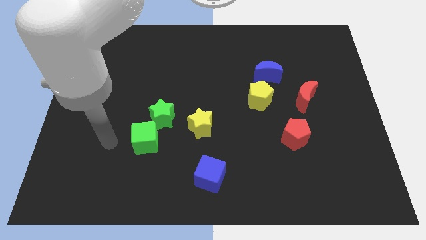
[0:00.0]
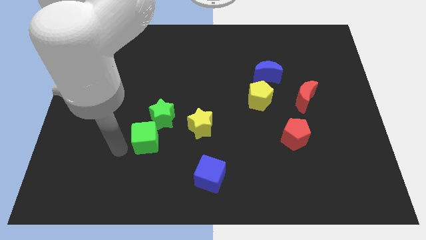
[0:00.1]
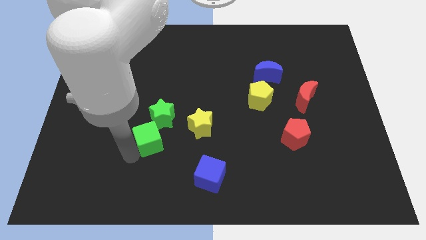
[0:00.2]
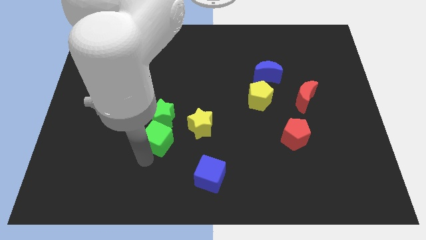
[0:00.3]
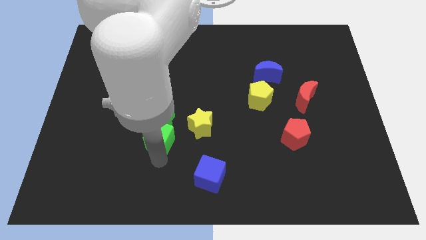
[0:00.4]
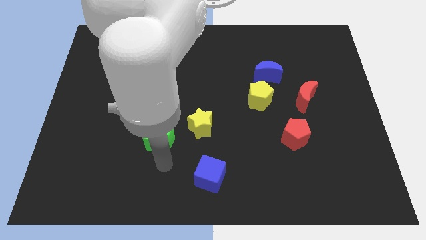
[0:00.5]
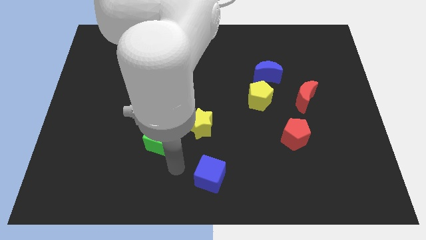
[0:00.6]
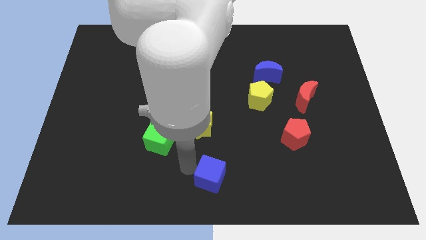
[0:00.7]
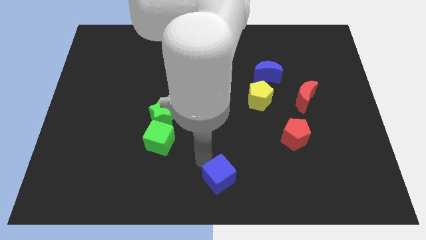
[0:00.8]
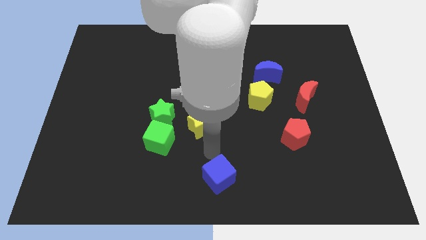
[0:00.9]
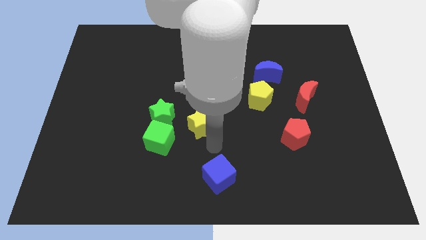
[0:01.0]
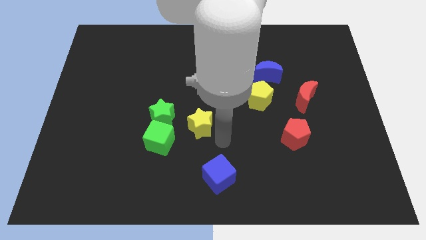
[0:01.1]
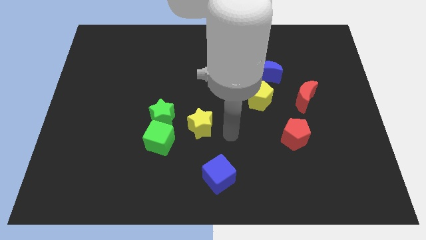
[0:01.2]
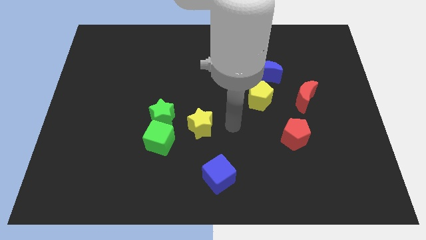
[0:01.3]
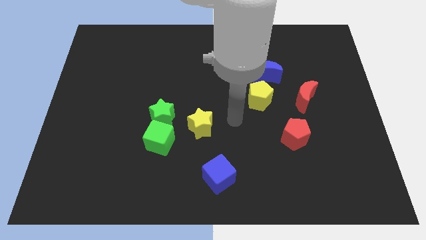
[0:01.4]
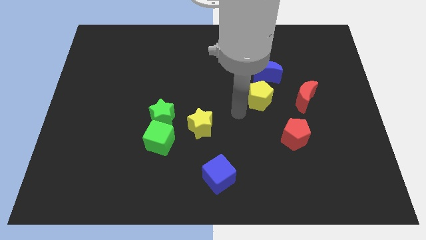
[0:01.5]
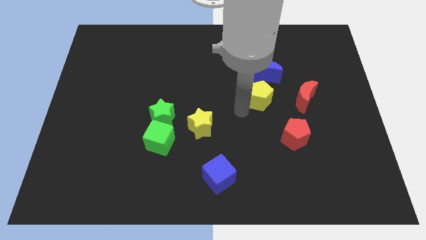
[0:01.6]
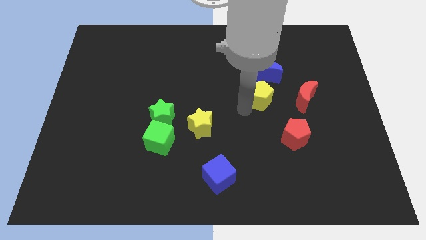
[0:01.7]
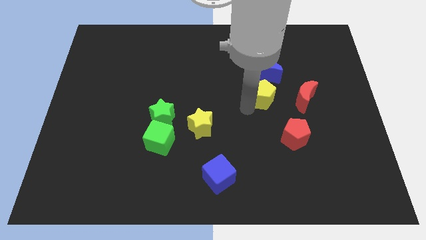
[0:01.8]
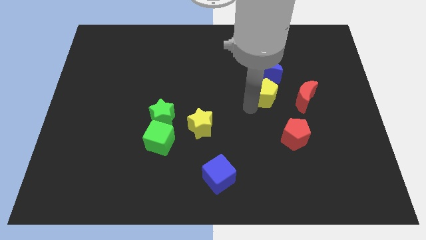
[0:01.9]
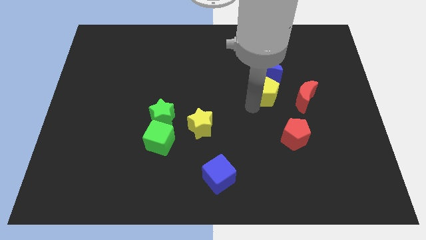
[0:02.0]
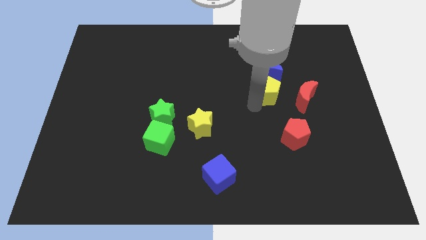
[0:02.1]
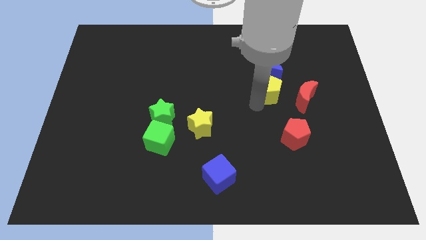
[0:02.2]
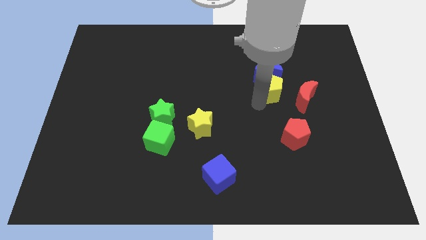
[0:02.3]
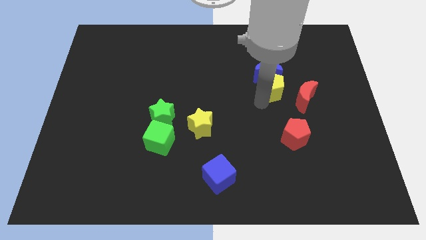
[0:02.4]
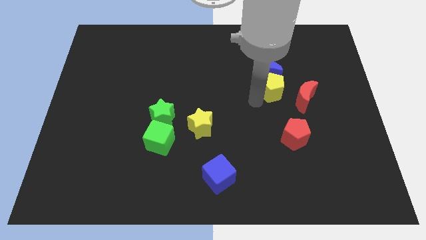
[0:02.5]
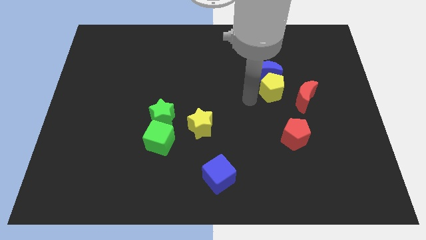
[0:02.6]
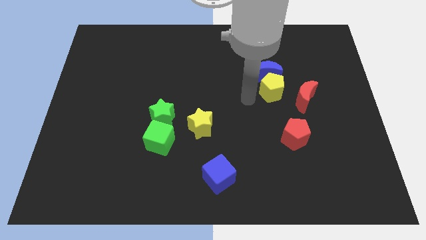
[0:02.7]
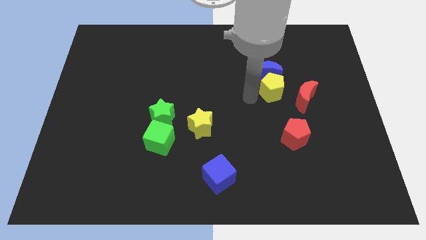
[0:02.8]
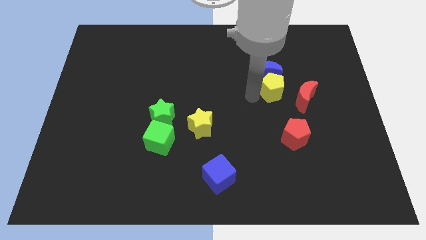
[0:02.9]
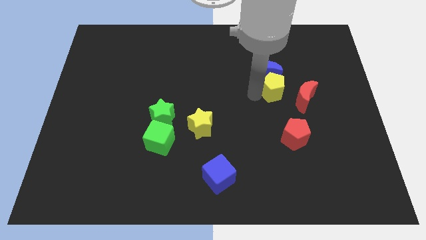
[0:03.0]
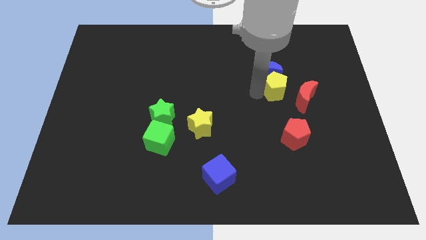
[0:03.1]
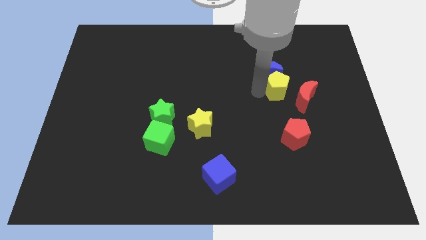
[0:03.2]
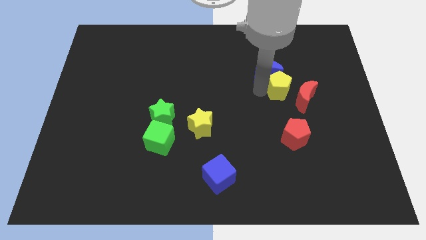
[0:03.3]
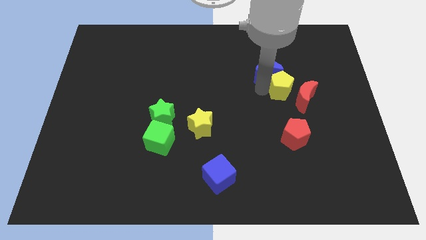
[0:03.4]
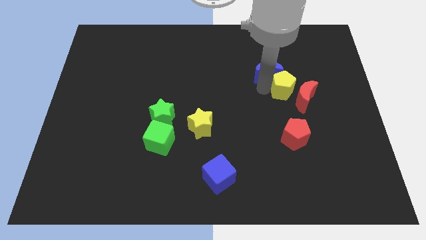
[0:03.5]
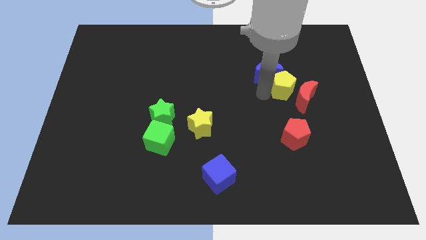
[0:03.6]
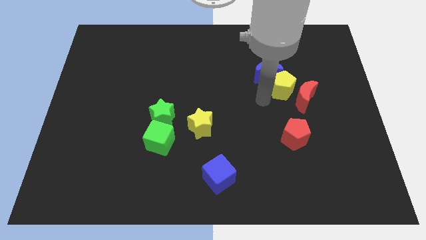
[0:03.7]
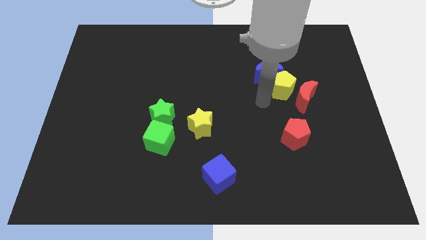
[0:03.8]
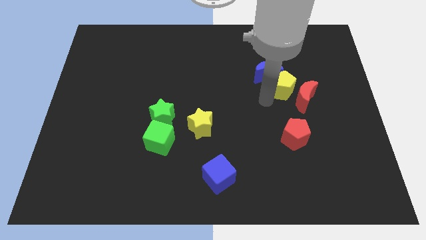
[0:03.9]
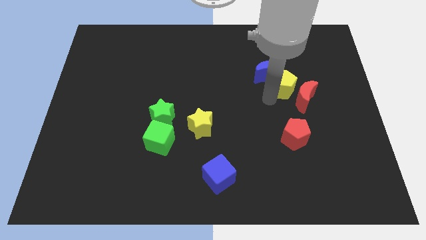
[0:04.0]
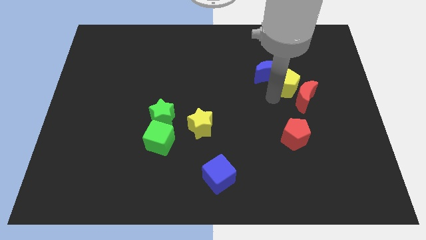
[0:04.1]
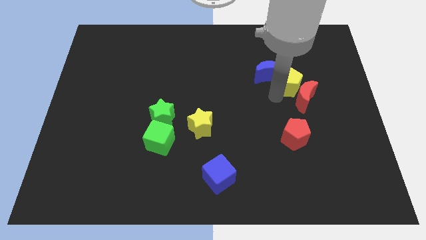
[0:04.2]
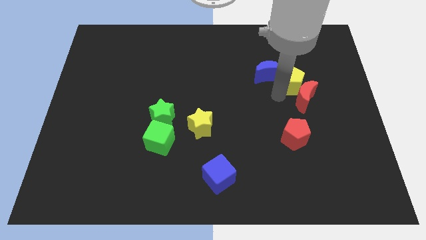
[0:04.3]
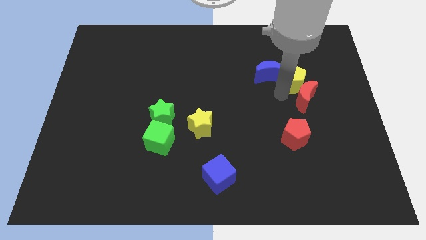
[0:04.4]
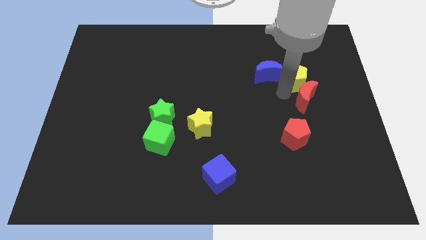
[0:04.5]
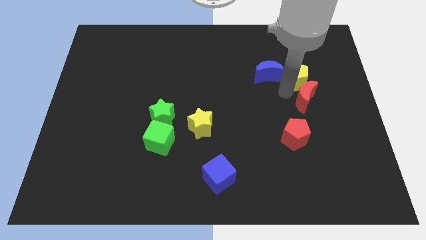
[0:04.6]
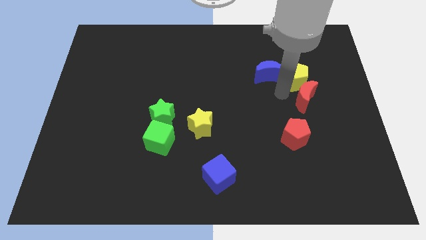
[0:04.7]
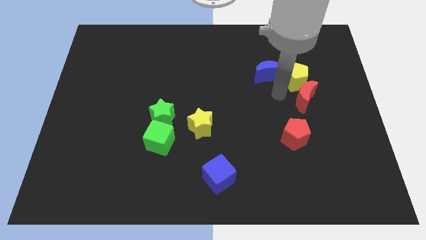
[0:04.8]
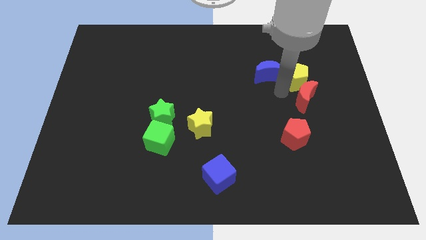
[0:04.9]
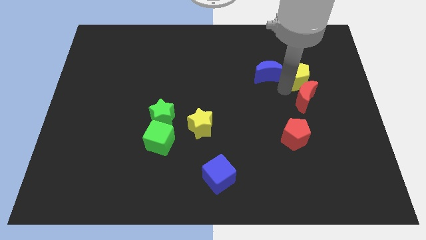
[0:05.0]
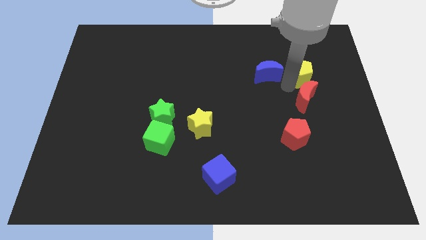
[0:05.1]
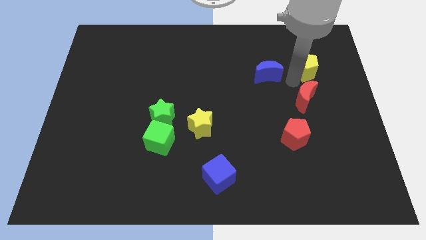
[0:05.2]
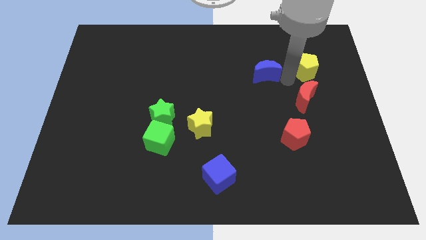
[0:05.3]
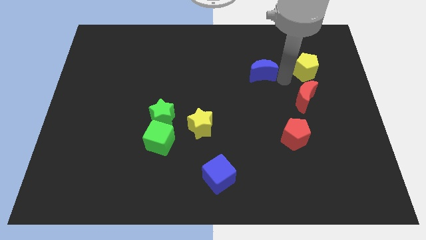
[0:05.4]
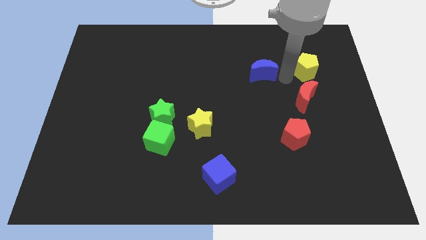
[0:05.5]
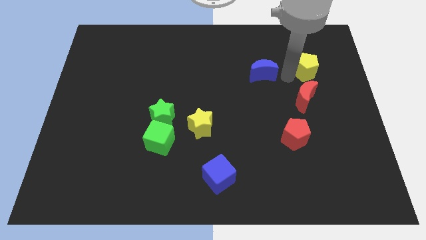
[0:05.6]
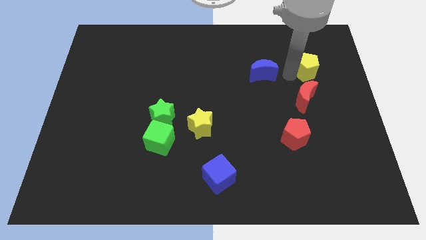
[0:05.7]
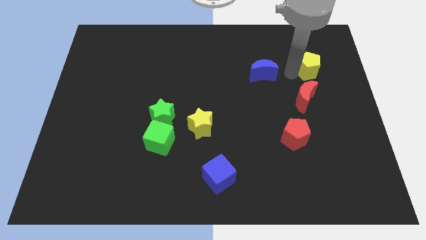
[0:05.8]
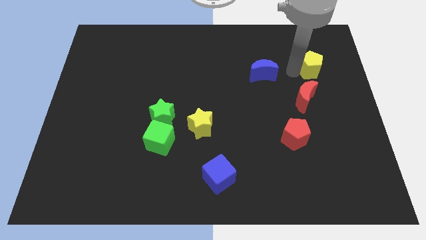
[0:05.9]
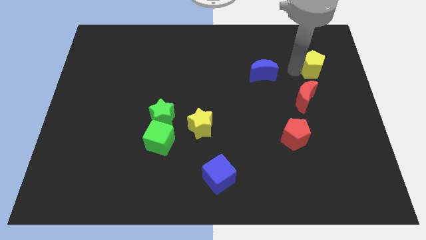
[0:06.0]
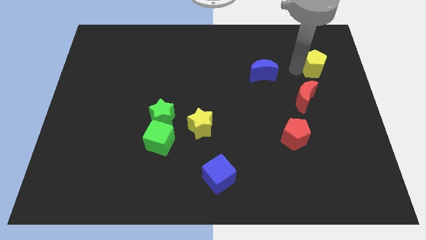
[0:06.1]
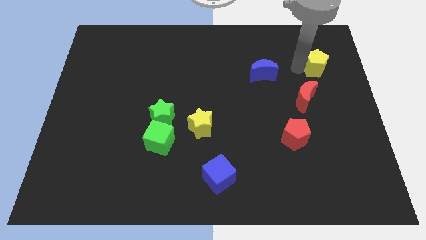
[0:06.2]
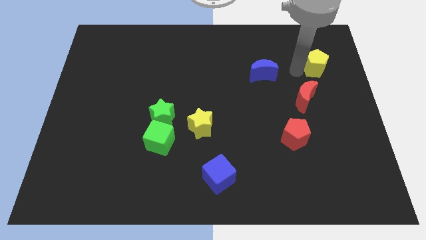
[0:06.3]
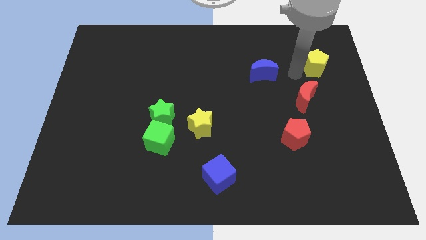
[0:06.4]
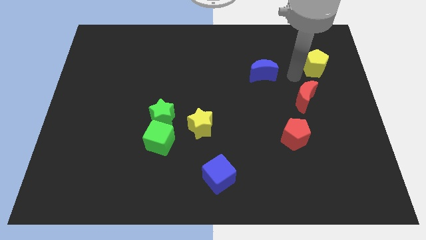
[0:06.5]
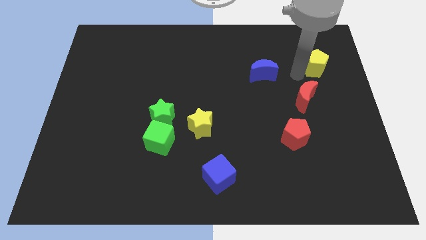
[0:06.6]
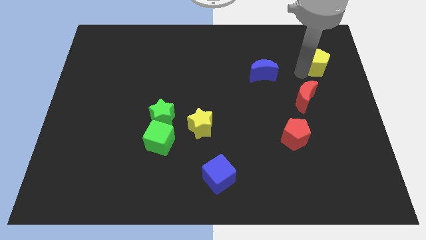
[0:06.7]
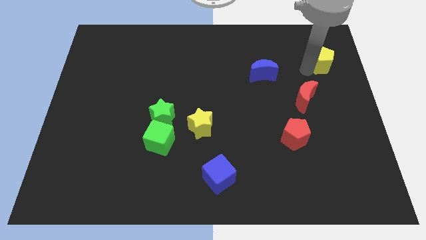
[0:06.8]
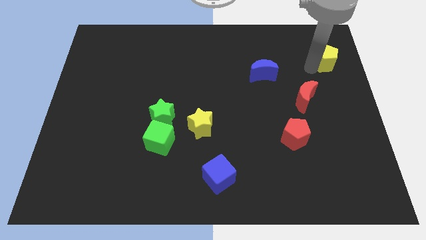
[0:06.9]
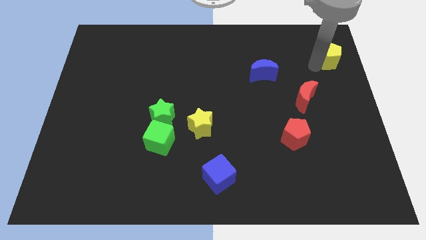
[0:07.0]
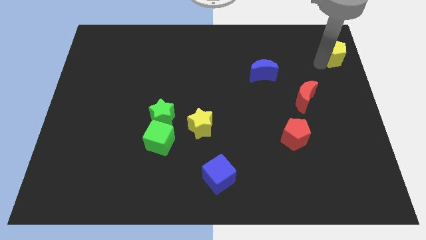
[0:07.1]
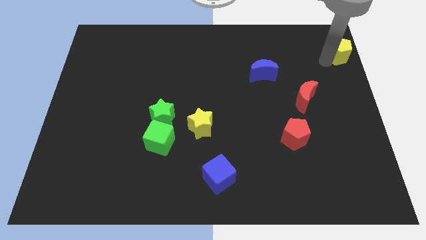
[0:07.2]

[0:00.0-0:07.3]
move the yellow pentagon to the top right
